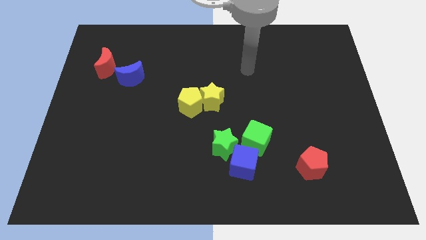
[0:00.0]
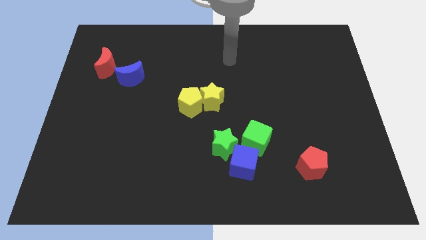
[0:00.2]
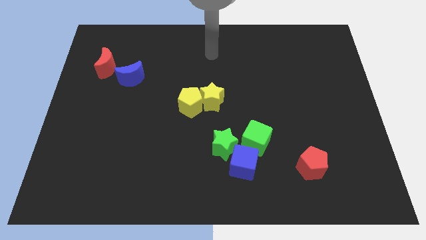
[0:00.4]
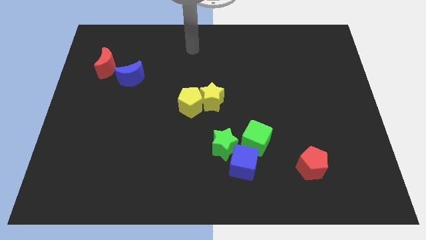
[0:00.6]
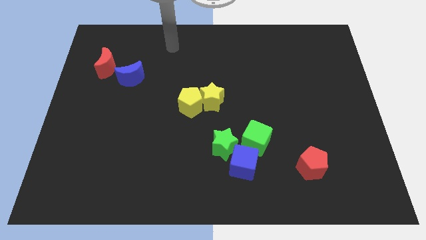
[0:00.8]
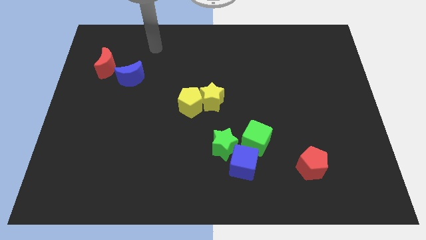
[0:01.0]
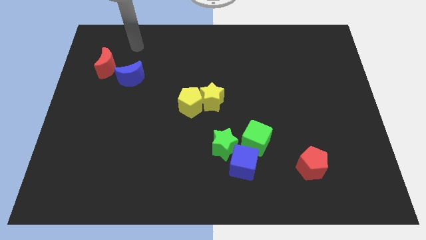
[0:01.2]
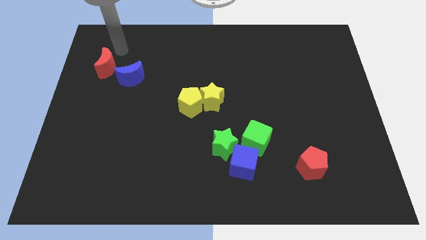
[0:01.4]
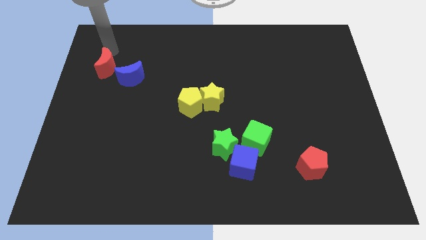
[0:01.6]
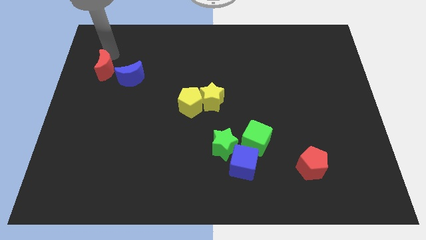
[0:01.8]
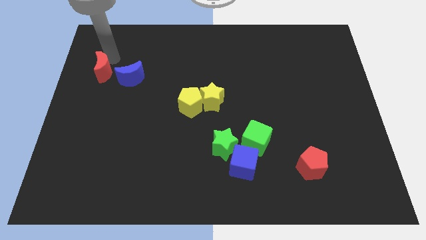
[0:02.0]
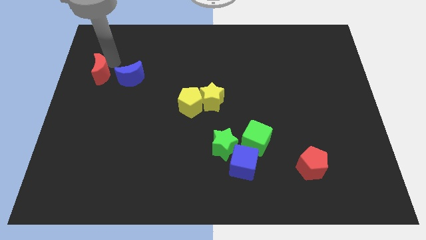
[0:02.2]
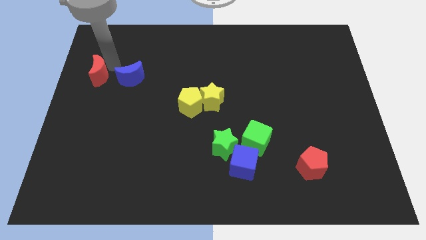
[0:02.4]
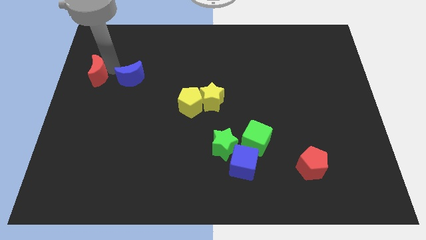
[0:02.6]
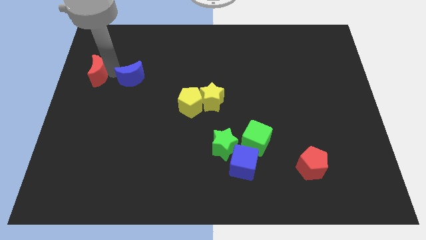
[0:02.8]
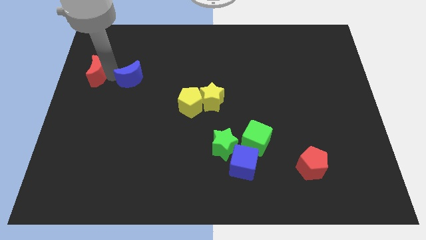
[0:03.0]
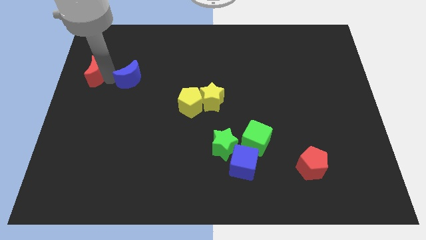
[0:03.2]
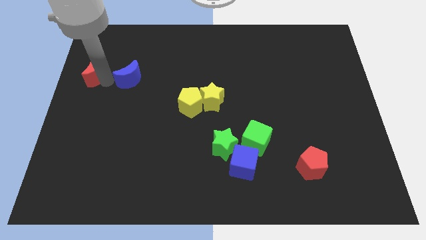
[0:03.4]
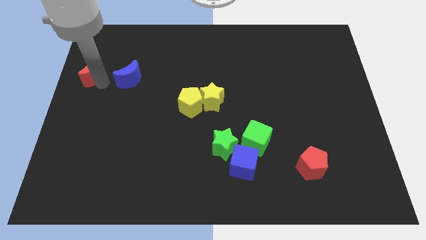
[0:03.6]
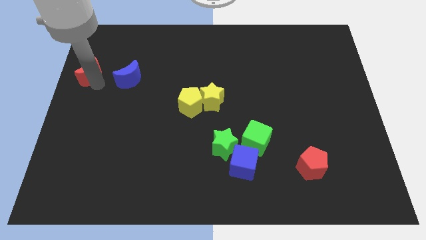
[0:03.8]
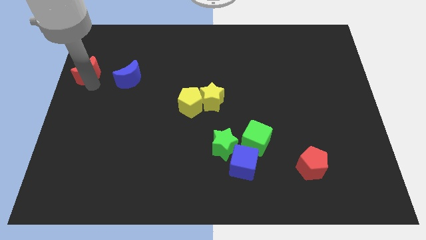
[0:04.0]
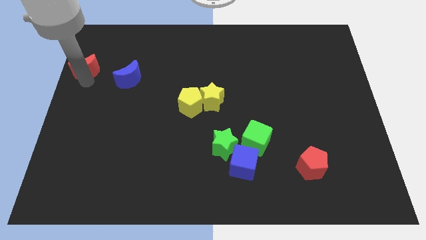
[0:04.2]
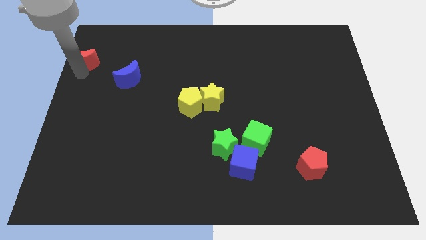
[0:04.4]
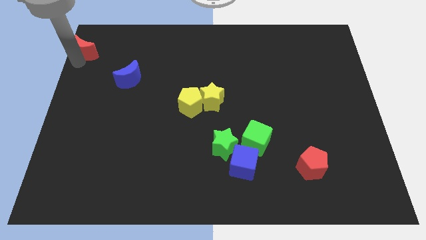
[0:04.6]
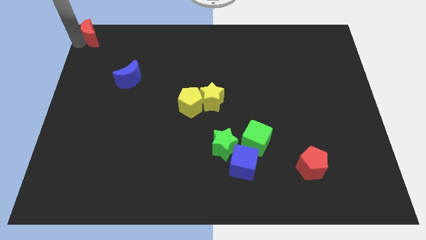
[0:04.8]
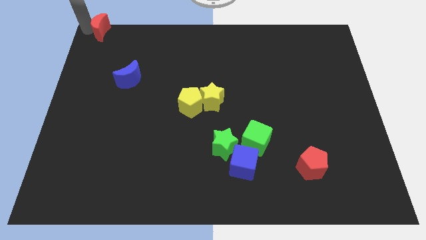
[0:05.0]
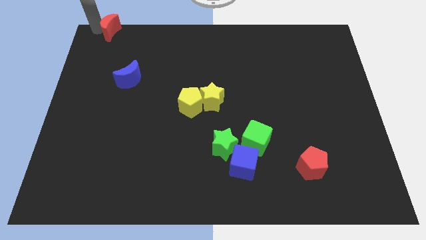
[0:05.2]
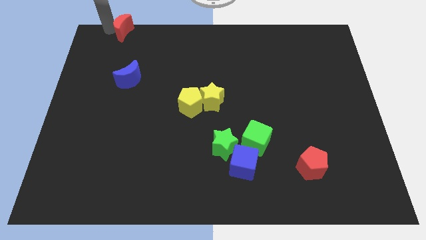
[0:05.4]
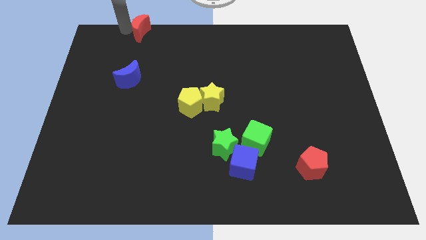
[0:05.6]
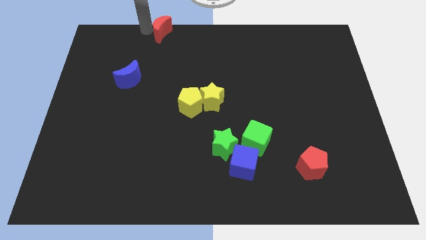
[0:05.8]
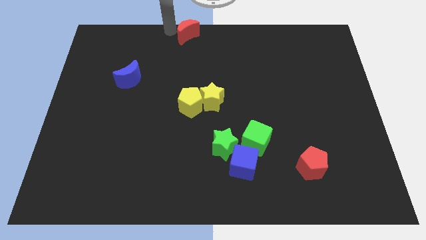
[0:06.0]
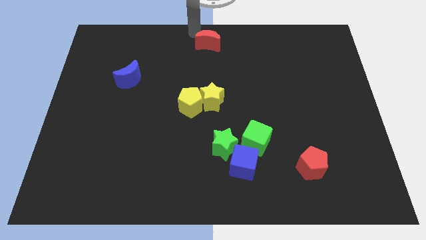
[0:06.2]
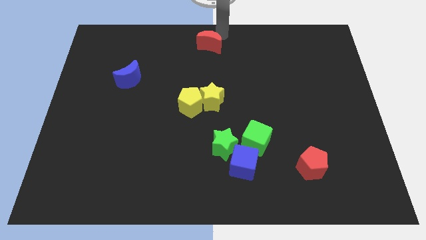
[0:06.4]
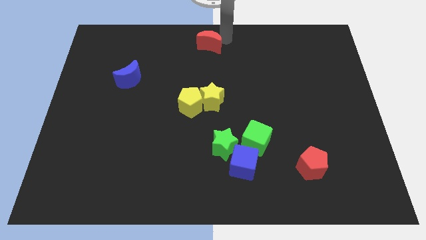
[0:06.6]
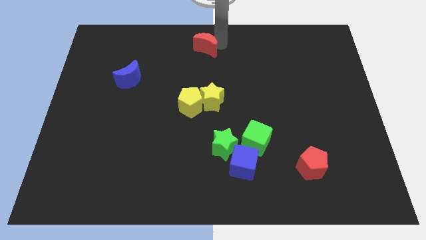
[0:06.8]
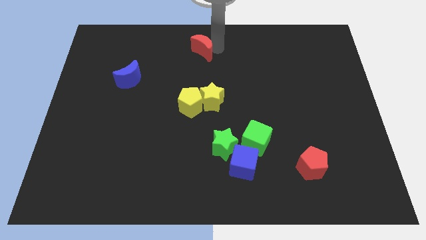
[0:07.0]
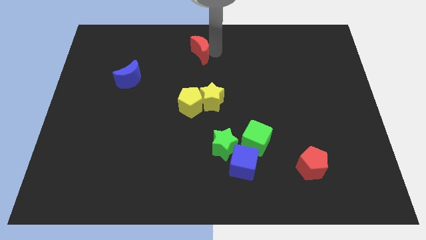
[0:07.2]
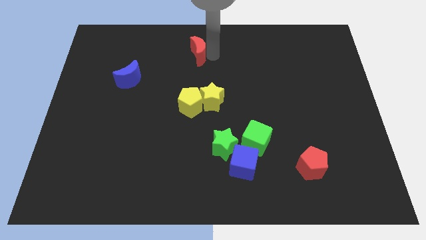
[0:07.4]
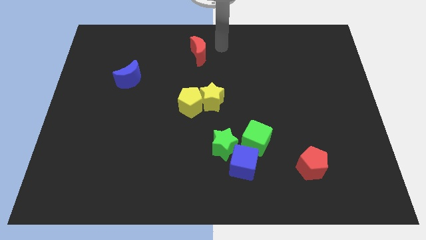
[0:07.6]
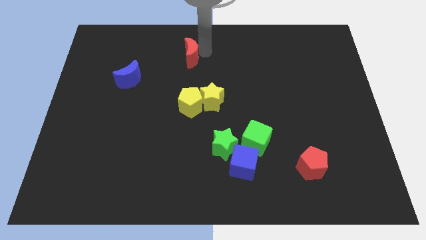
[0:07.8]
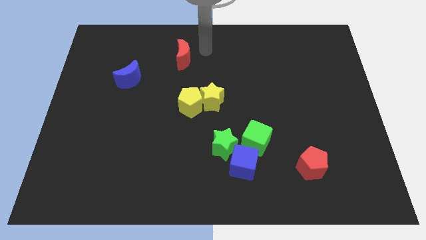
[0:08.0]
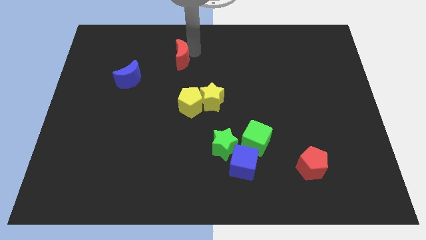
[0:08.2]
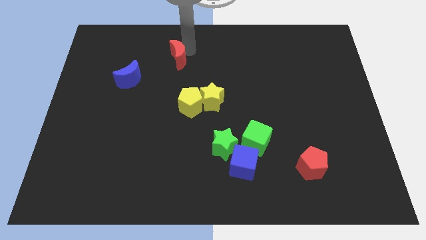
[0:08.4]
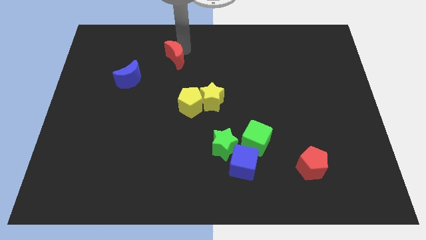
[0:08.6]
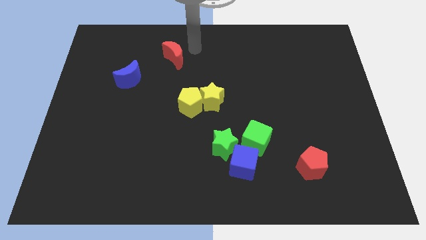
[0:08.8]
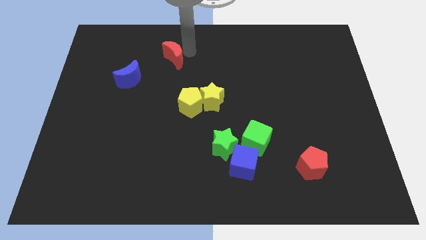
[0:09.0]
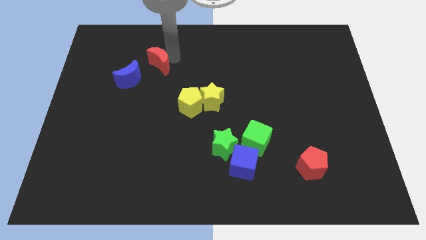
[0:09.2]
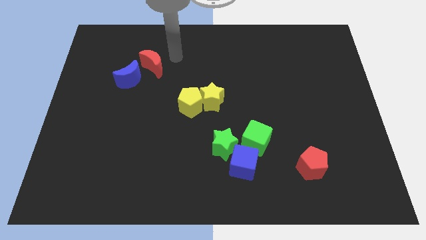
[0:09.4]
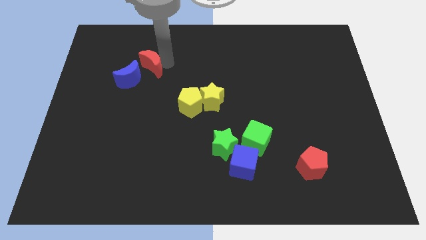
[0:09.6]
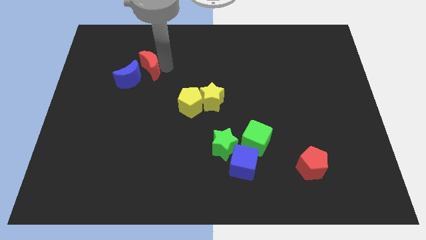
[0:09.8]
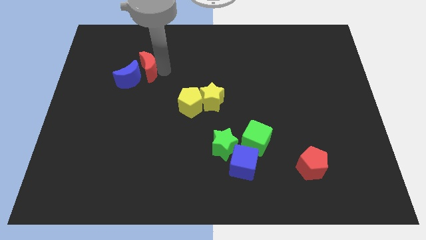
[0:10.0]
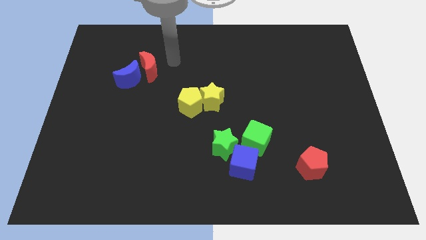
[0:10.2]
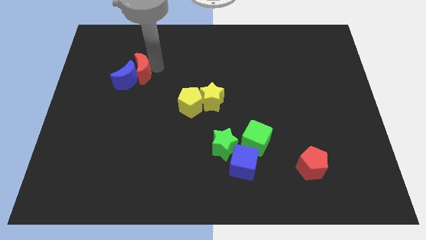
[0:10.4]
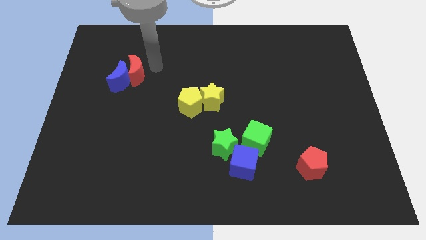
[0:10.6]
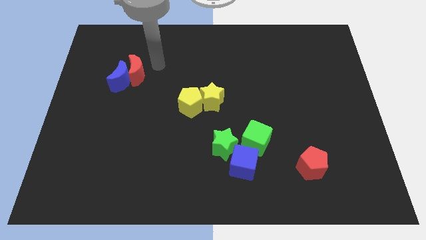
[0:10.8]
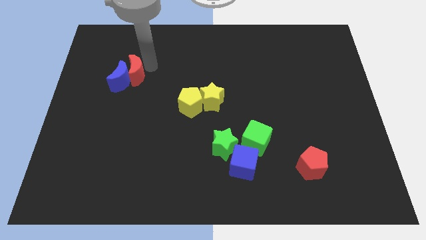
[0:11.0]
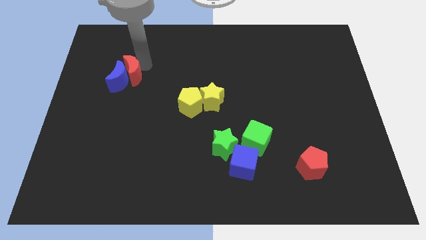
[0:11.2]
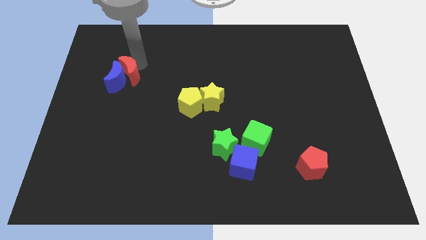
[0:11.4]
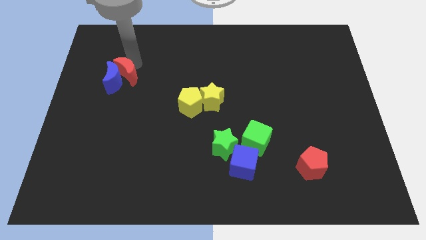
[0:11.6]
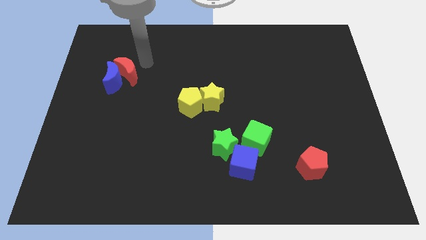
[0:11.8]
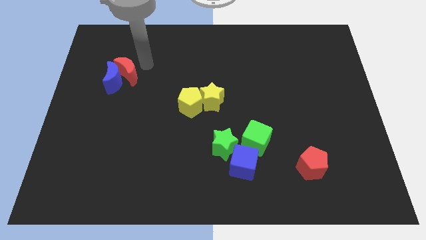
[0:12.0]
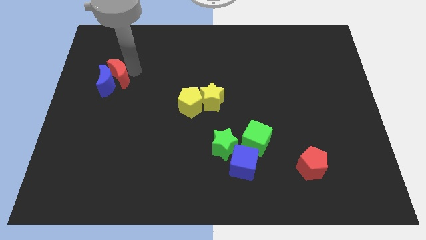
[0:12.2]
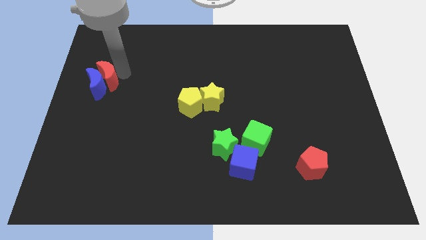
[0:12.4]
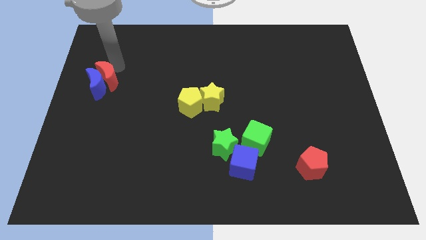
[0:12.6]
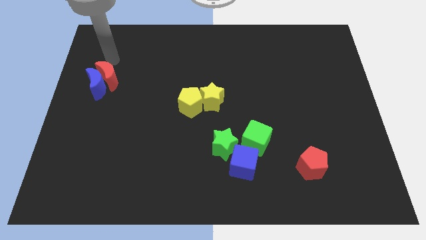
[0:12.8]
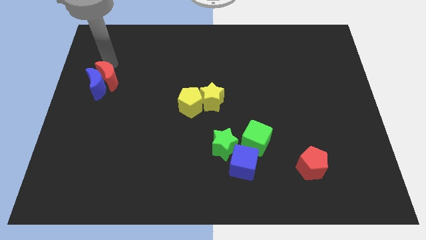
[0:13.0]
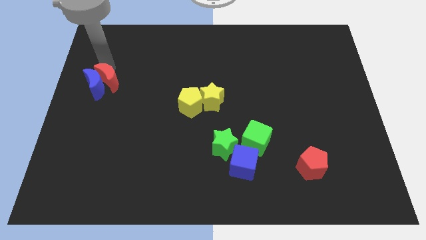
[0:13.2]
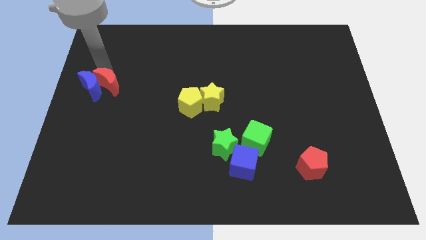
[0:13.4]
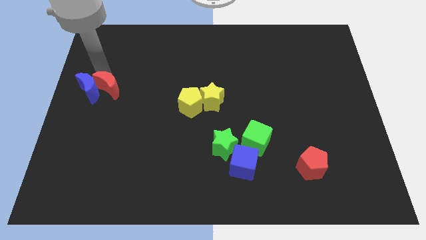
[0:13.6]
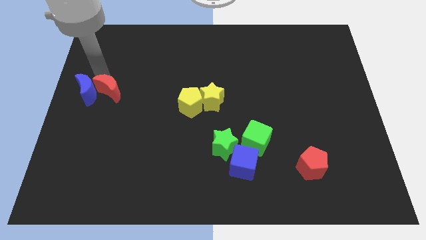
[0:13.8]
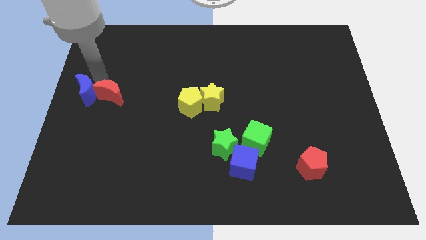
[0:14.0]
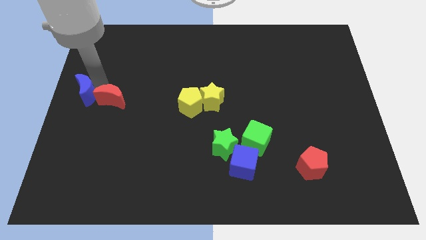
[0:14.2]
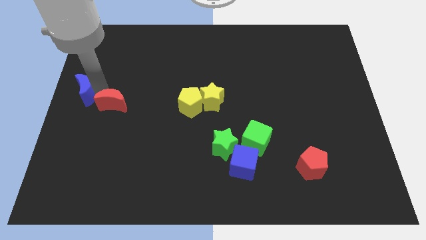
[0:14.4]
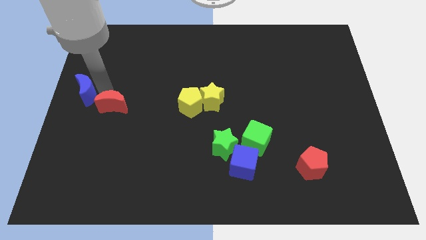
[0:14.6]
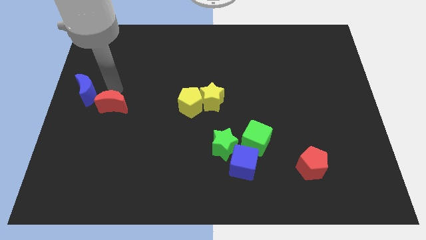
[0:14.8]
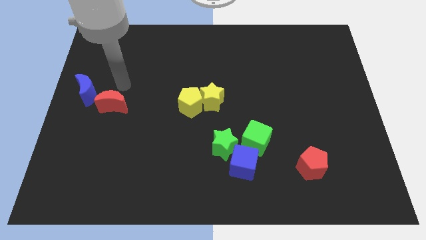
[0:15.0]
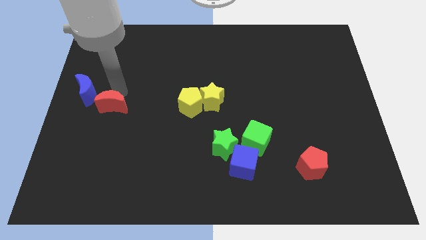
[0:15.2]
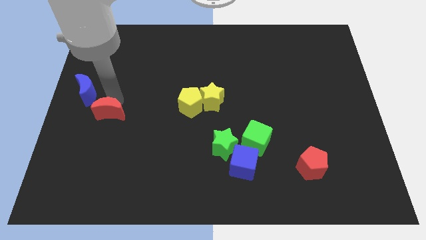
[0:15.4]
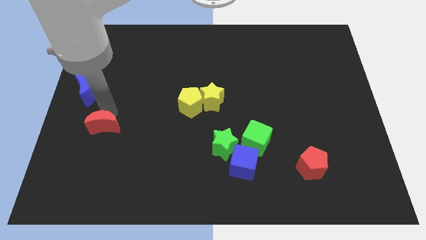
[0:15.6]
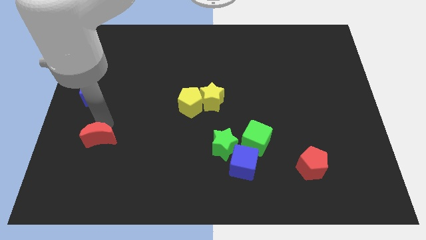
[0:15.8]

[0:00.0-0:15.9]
push the red moon down
